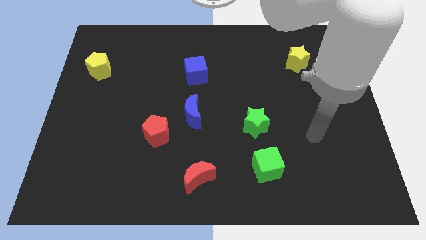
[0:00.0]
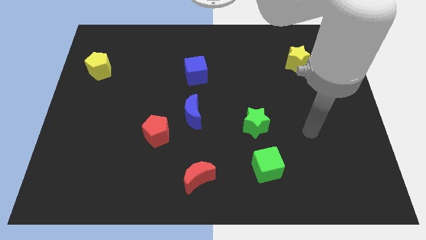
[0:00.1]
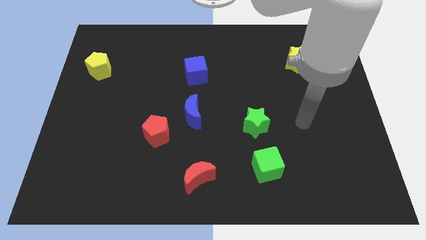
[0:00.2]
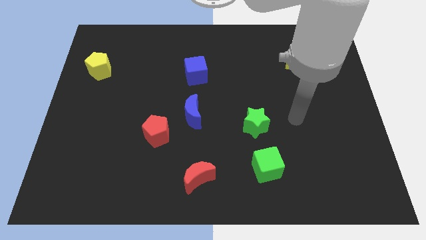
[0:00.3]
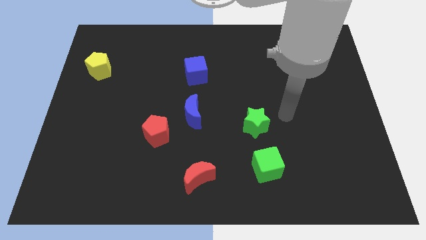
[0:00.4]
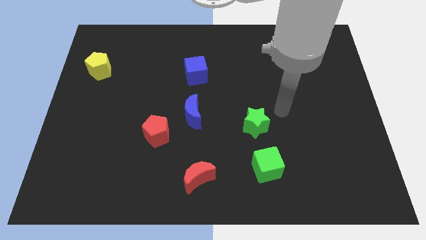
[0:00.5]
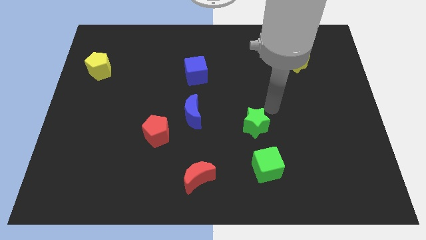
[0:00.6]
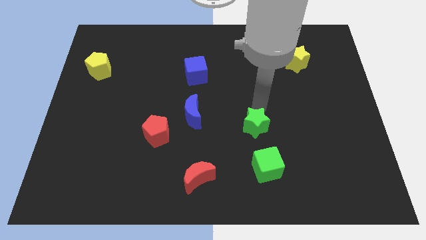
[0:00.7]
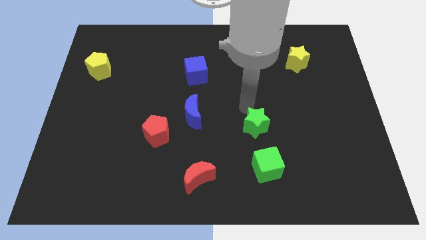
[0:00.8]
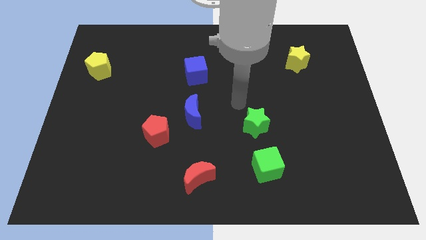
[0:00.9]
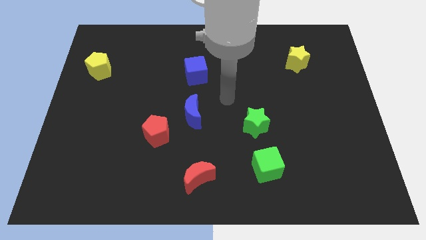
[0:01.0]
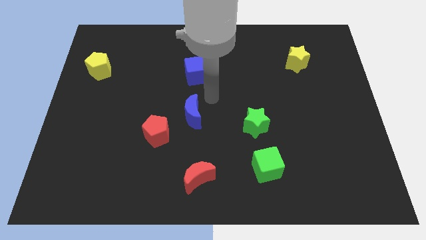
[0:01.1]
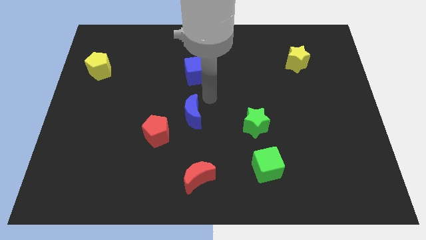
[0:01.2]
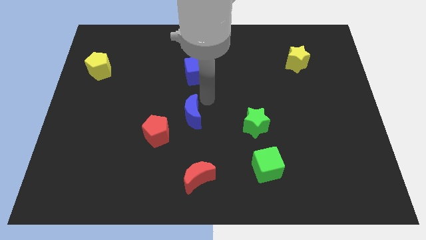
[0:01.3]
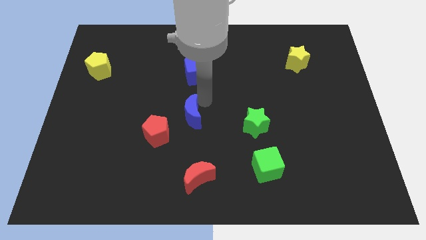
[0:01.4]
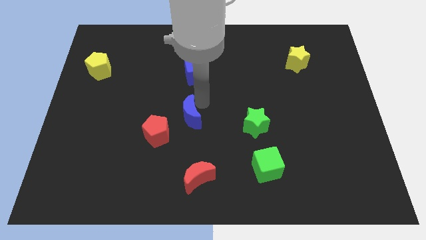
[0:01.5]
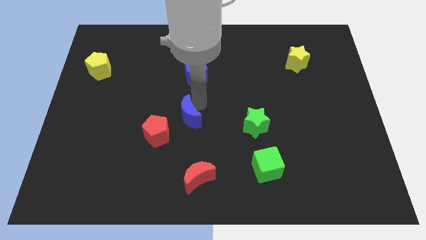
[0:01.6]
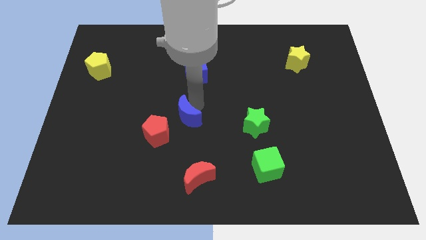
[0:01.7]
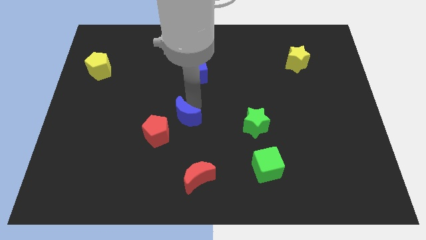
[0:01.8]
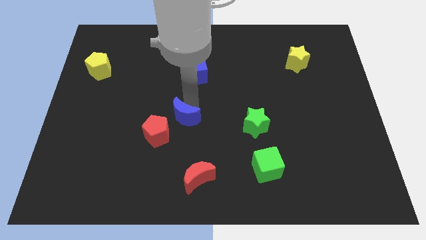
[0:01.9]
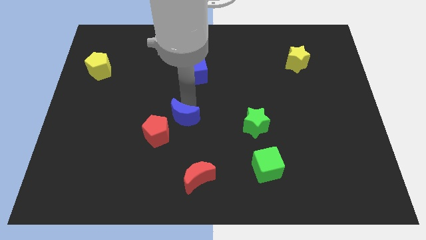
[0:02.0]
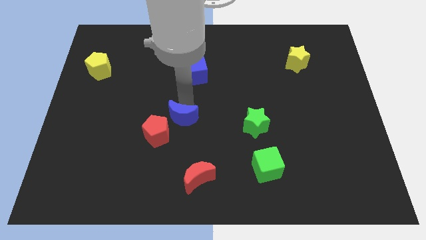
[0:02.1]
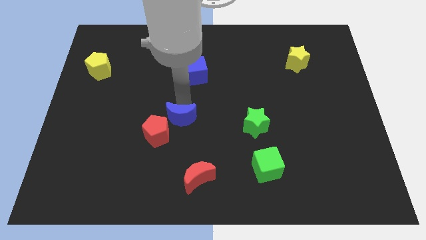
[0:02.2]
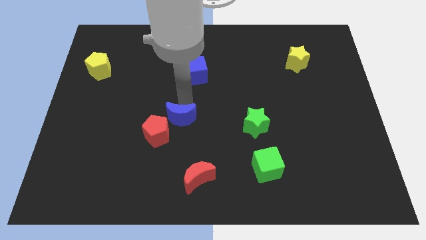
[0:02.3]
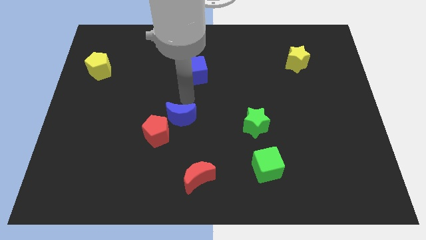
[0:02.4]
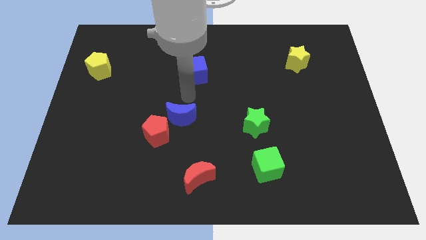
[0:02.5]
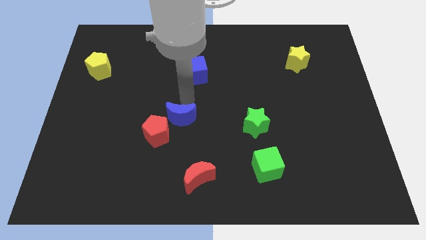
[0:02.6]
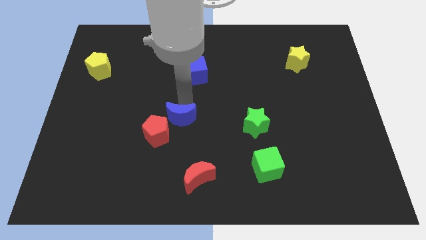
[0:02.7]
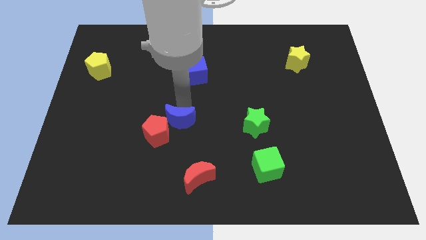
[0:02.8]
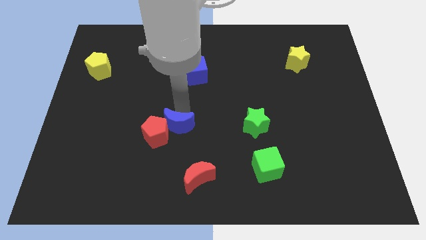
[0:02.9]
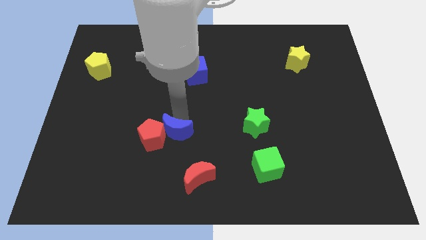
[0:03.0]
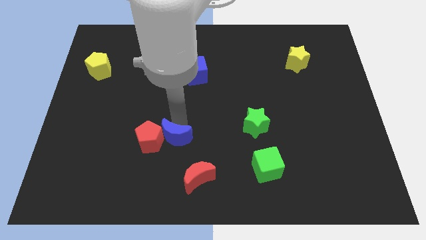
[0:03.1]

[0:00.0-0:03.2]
move the blue moon a bit downwards and to the left

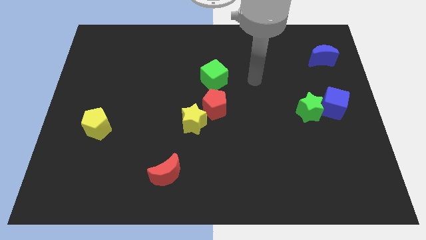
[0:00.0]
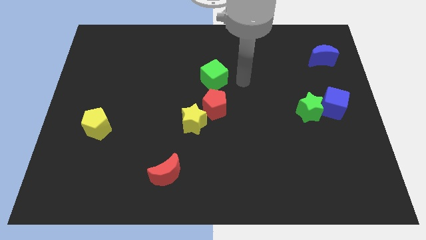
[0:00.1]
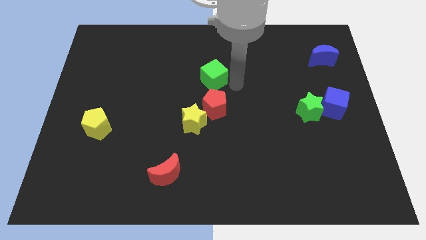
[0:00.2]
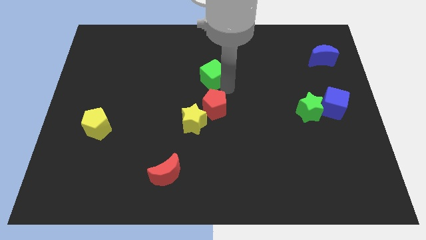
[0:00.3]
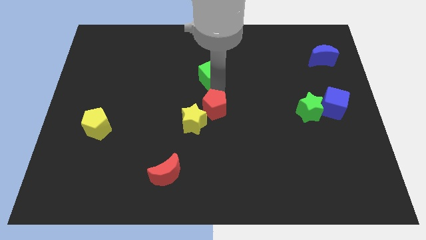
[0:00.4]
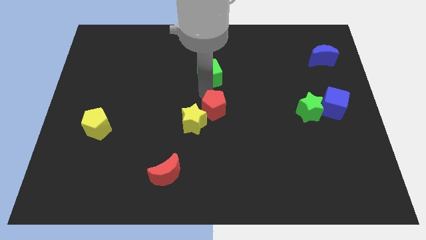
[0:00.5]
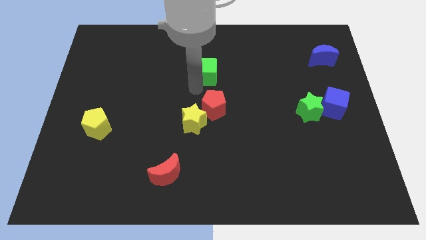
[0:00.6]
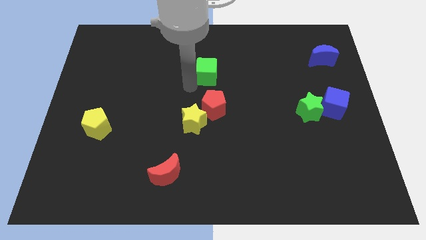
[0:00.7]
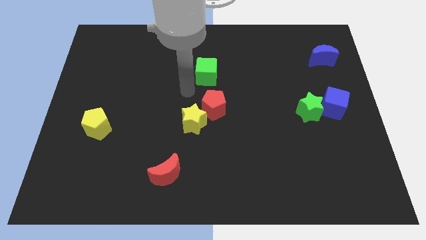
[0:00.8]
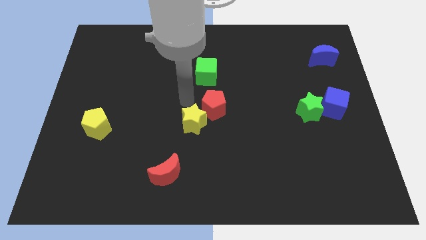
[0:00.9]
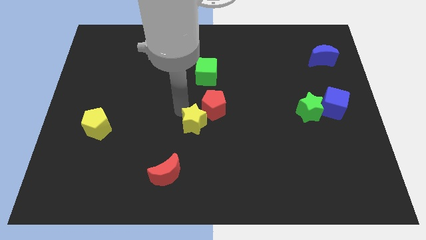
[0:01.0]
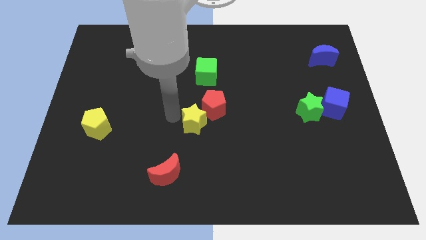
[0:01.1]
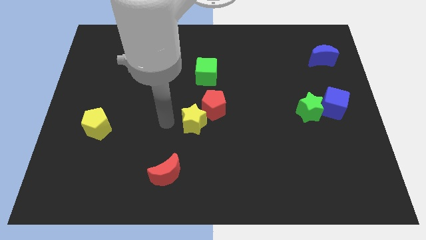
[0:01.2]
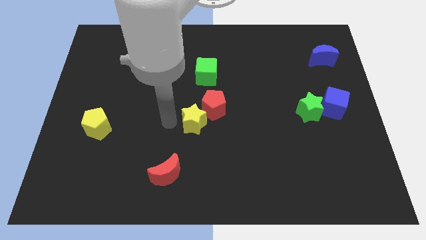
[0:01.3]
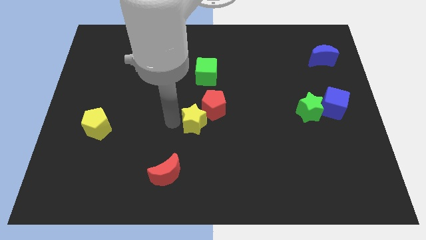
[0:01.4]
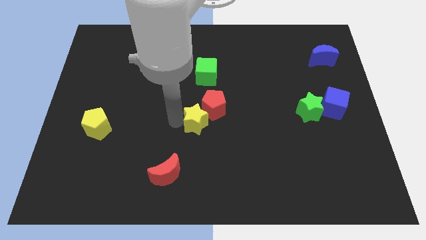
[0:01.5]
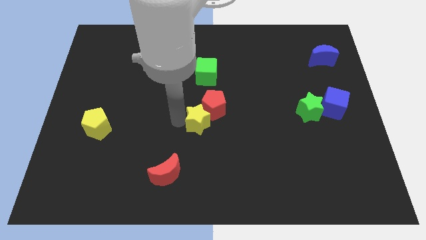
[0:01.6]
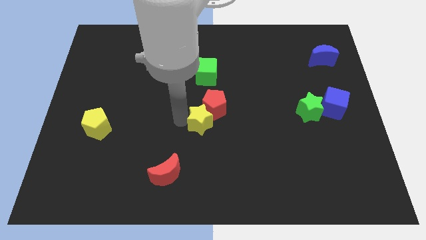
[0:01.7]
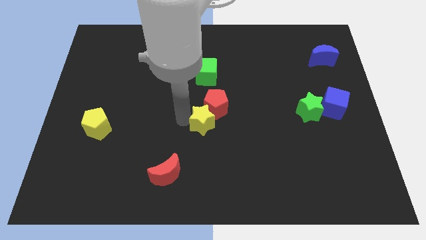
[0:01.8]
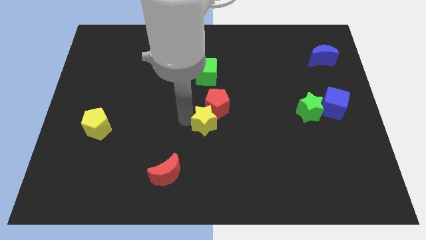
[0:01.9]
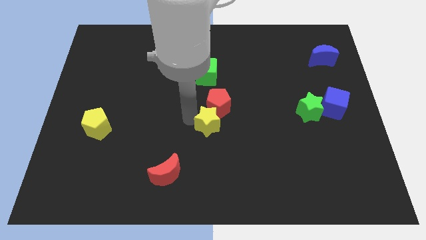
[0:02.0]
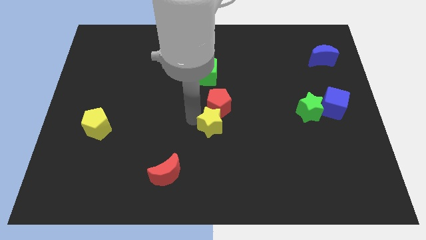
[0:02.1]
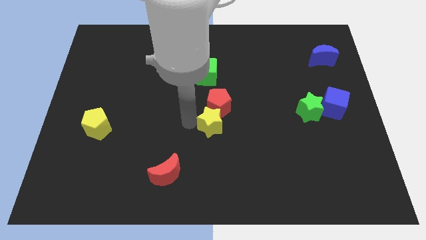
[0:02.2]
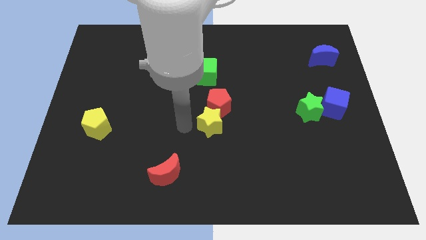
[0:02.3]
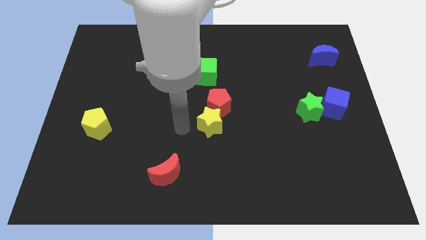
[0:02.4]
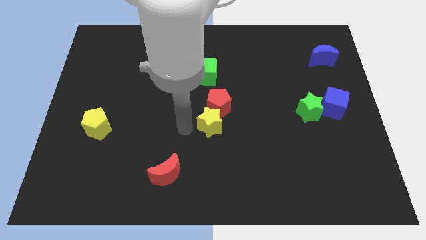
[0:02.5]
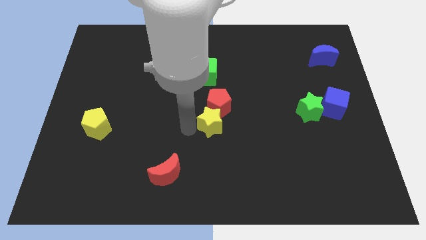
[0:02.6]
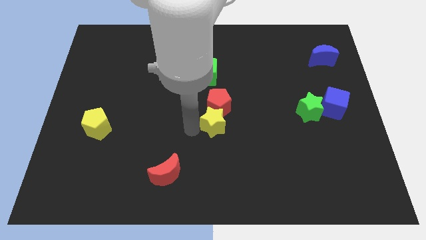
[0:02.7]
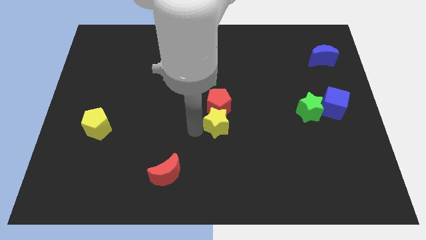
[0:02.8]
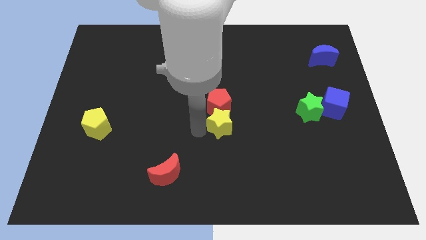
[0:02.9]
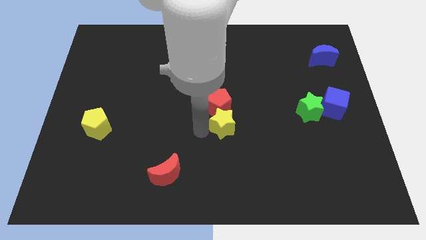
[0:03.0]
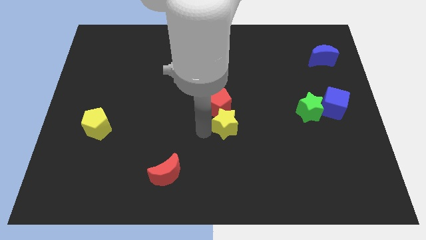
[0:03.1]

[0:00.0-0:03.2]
push the yellow star a little bit to the right

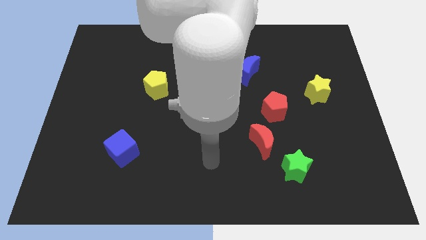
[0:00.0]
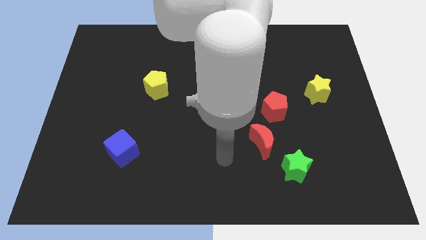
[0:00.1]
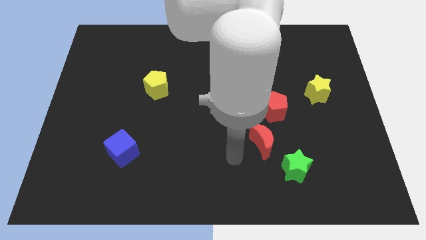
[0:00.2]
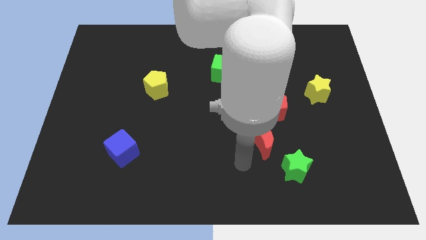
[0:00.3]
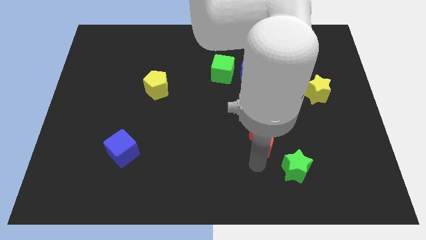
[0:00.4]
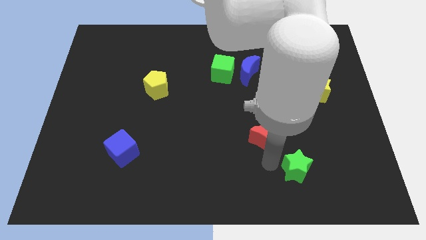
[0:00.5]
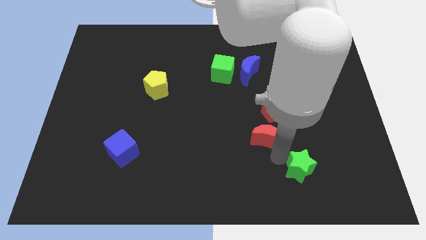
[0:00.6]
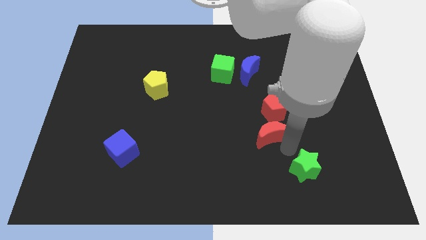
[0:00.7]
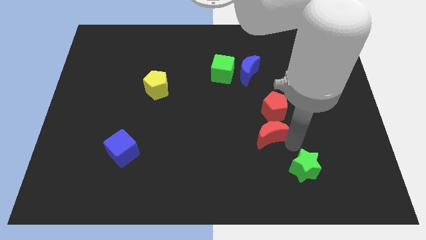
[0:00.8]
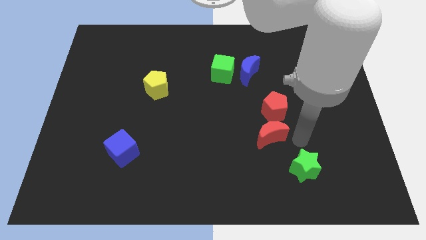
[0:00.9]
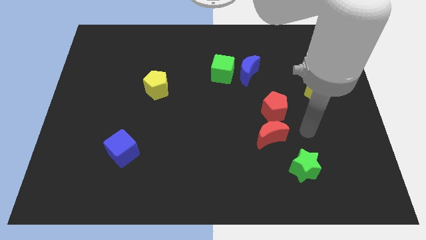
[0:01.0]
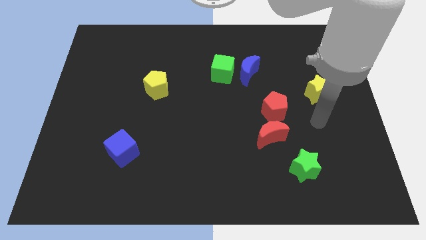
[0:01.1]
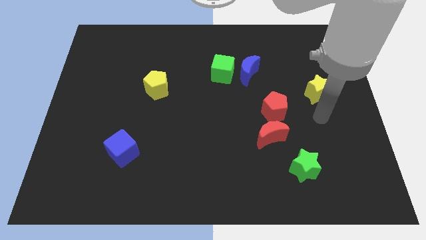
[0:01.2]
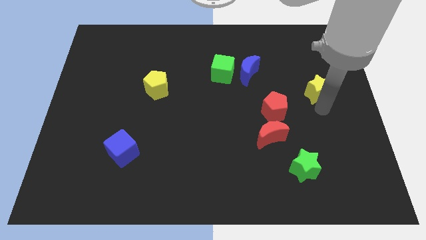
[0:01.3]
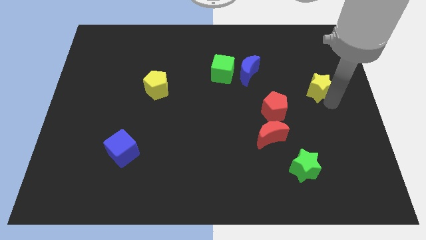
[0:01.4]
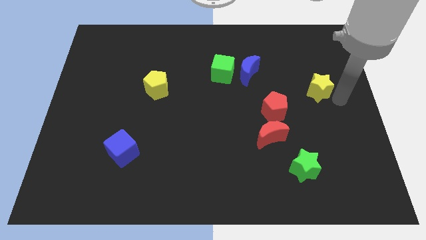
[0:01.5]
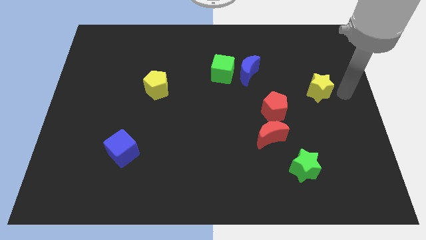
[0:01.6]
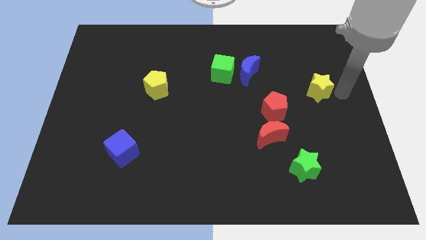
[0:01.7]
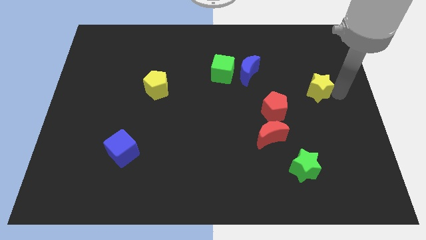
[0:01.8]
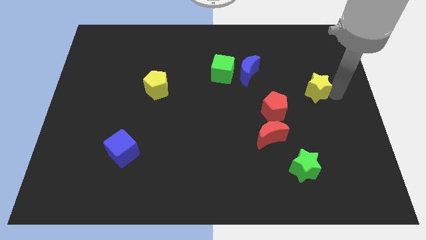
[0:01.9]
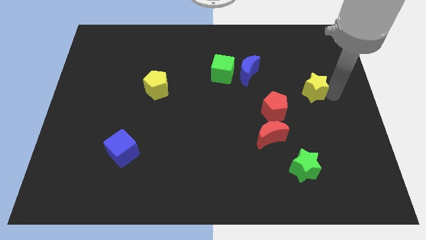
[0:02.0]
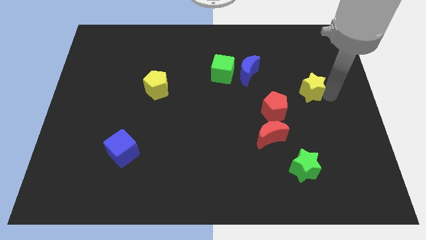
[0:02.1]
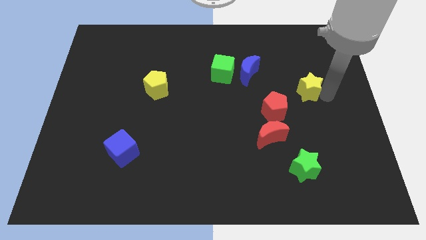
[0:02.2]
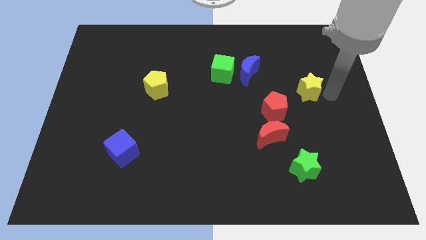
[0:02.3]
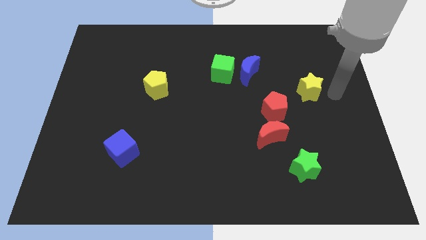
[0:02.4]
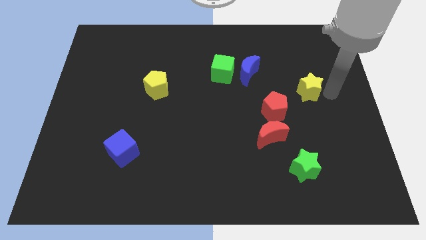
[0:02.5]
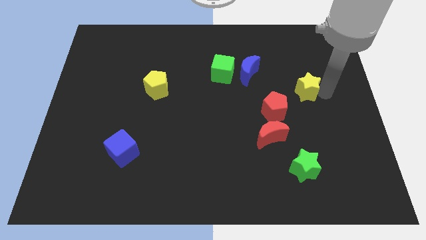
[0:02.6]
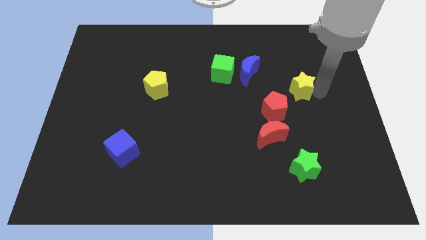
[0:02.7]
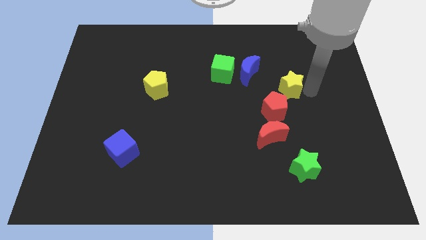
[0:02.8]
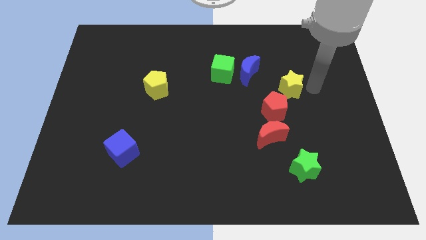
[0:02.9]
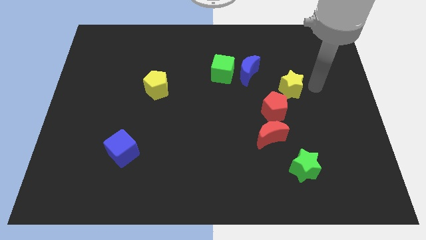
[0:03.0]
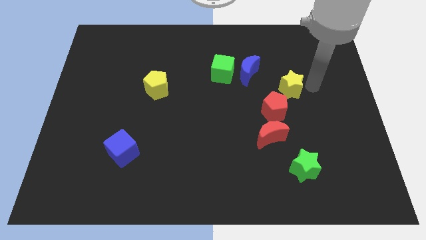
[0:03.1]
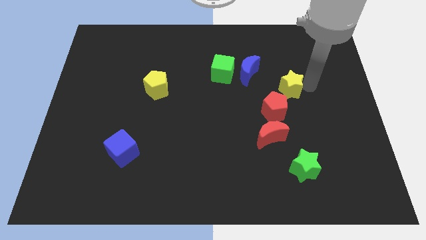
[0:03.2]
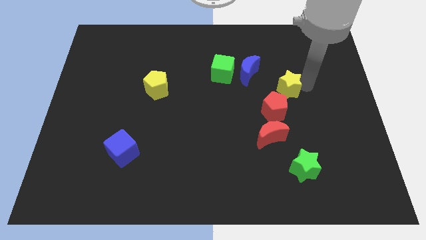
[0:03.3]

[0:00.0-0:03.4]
slightly push the yellow star left
